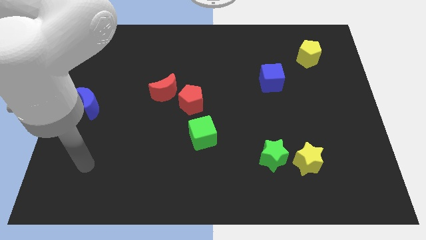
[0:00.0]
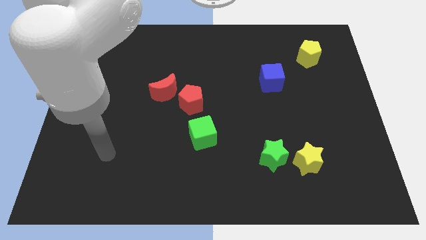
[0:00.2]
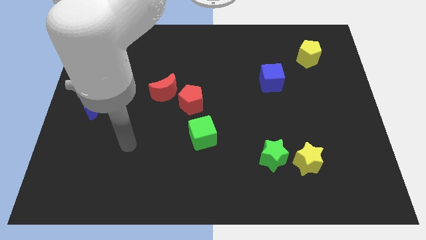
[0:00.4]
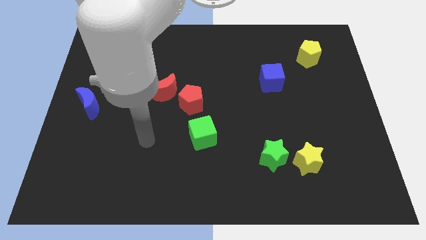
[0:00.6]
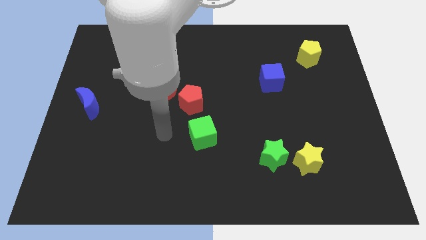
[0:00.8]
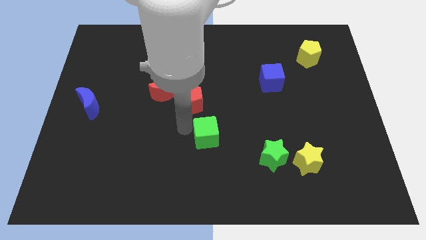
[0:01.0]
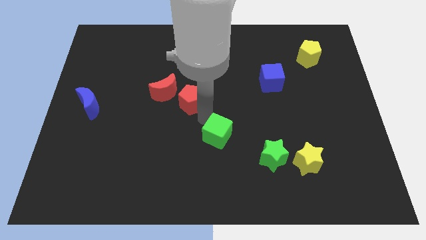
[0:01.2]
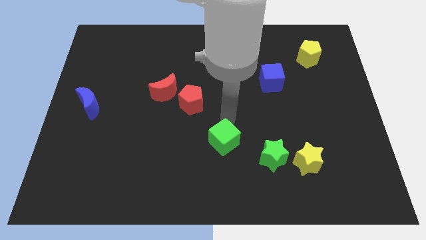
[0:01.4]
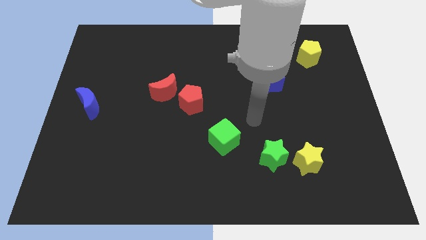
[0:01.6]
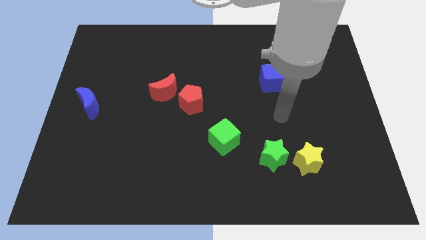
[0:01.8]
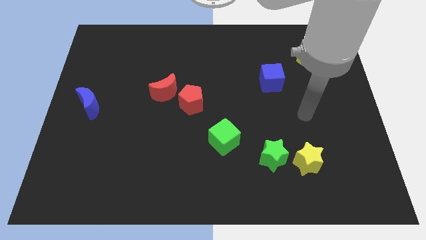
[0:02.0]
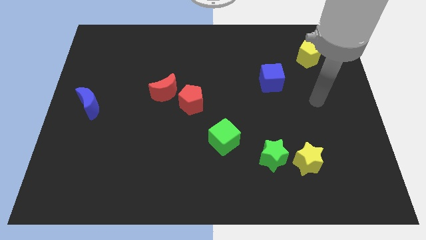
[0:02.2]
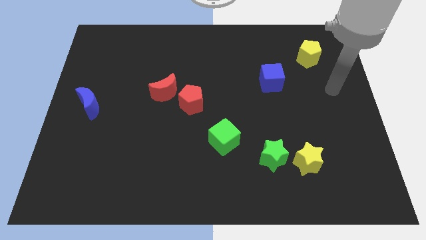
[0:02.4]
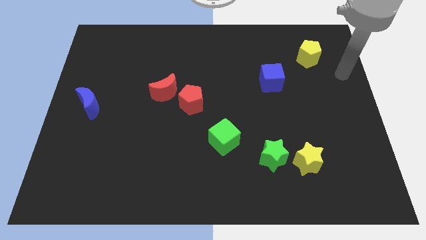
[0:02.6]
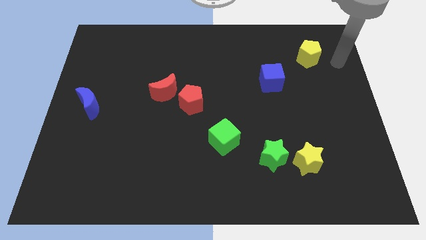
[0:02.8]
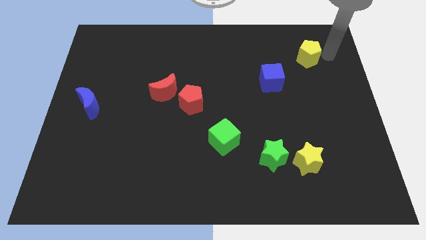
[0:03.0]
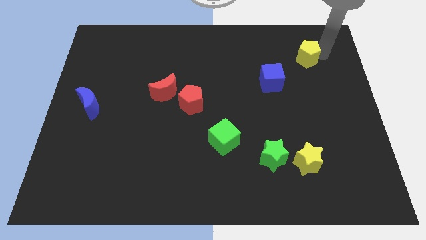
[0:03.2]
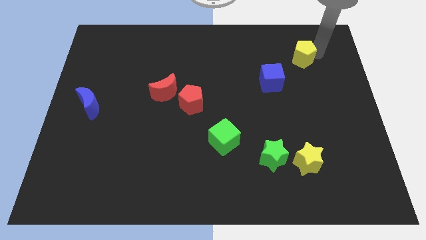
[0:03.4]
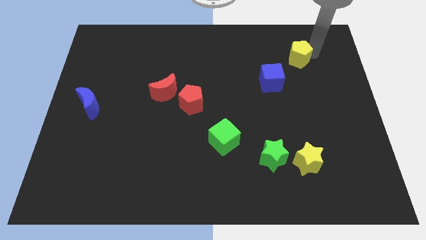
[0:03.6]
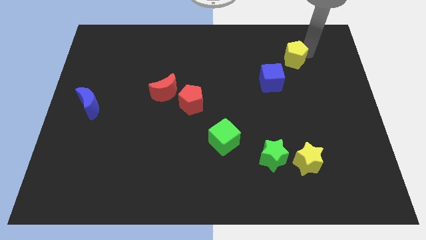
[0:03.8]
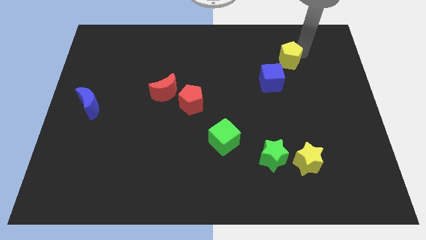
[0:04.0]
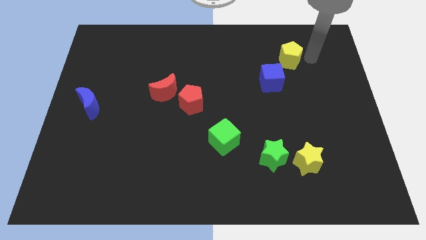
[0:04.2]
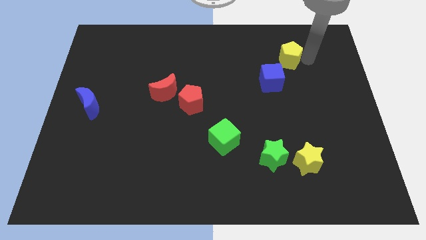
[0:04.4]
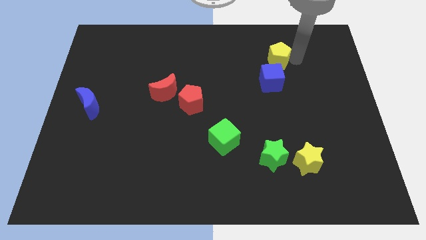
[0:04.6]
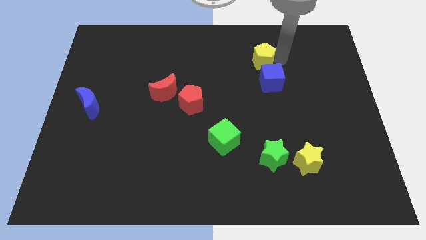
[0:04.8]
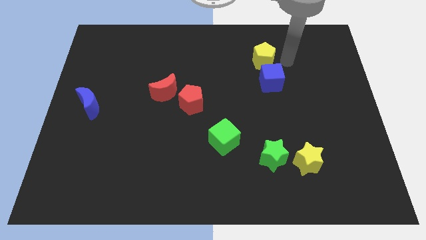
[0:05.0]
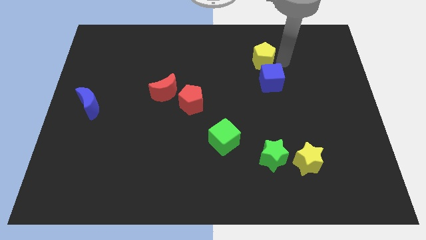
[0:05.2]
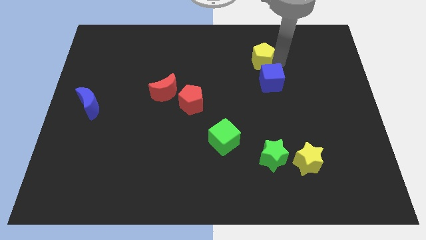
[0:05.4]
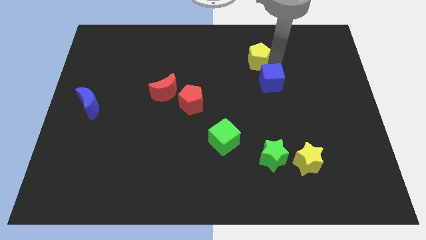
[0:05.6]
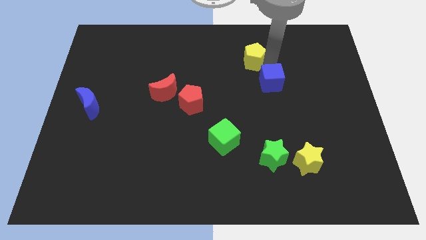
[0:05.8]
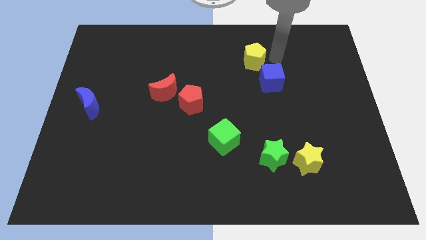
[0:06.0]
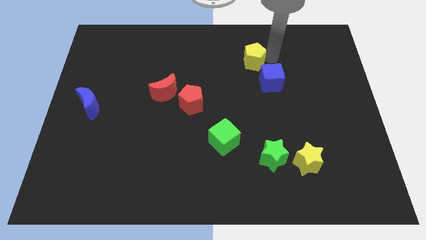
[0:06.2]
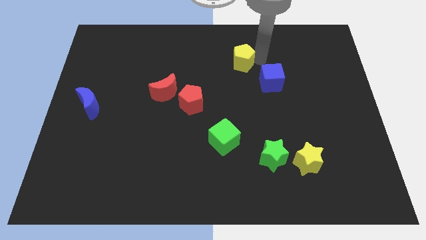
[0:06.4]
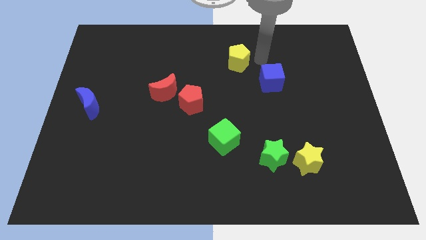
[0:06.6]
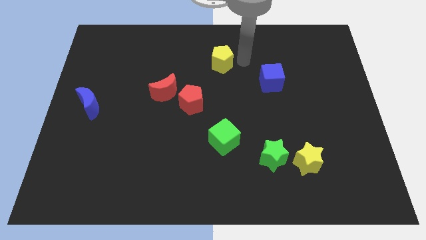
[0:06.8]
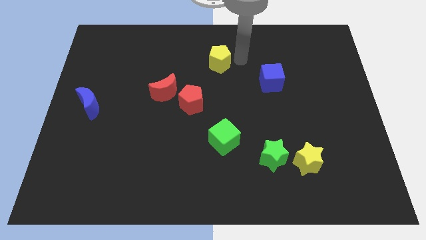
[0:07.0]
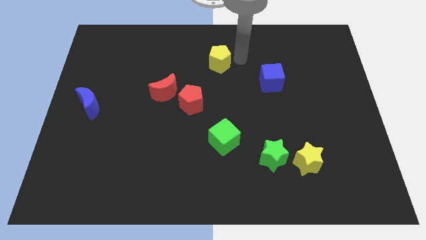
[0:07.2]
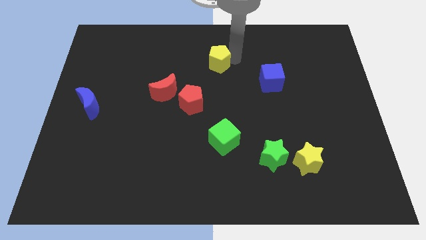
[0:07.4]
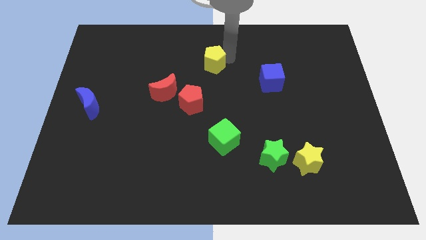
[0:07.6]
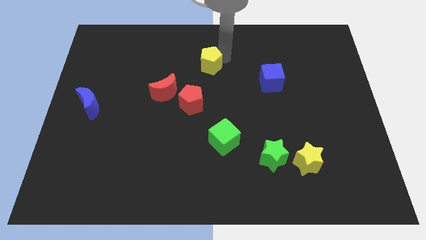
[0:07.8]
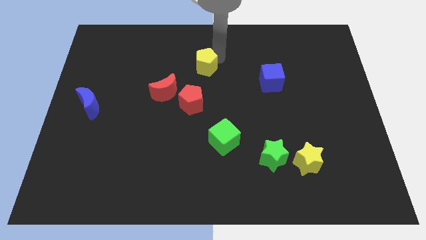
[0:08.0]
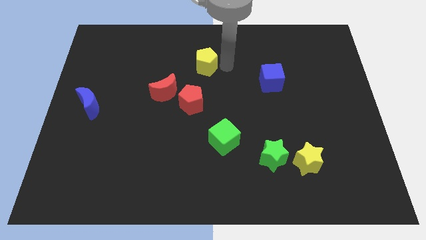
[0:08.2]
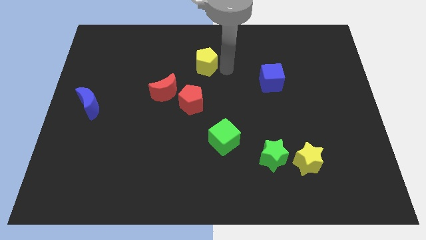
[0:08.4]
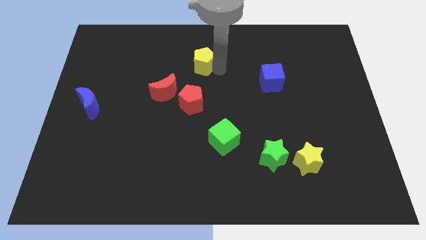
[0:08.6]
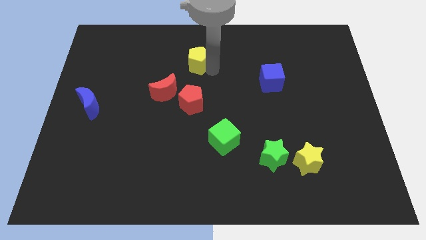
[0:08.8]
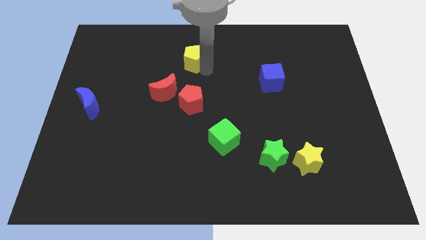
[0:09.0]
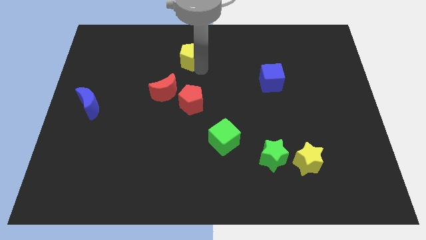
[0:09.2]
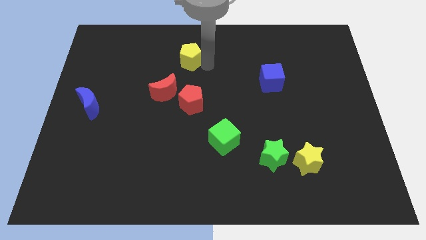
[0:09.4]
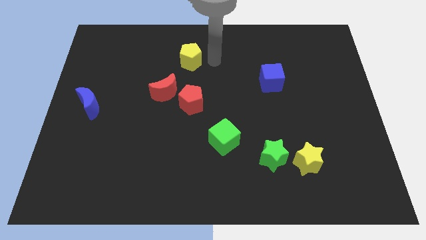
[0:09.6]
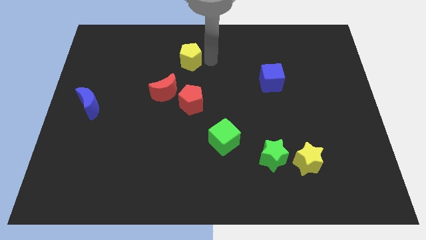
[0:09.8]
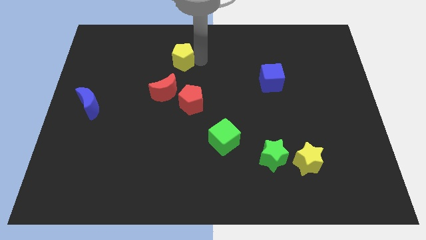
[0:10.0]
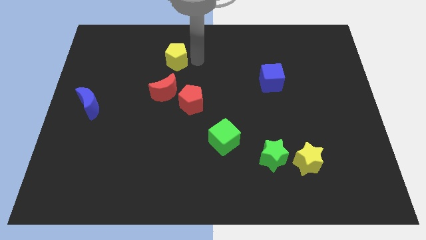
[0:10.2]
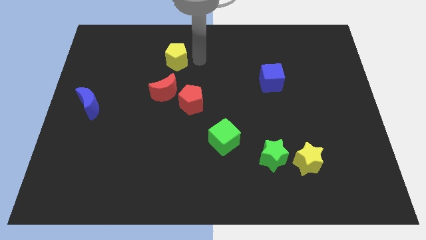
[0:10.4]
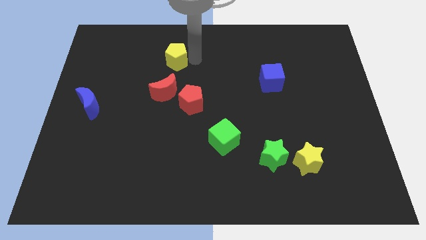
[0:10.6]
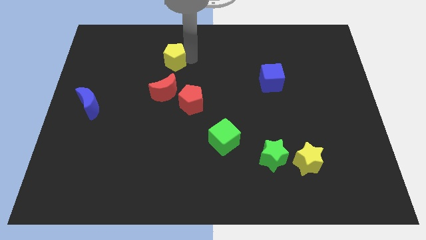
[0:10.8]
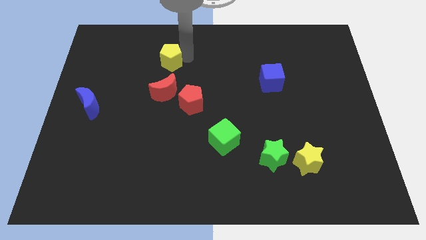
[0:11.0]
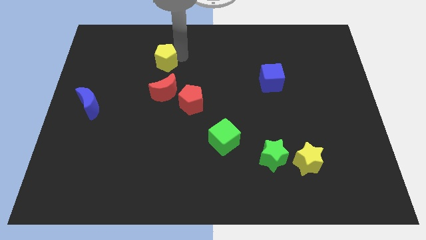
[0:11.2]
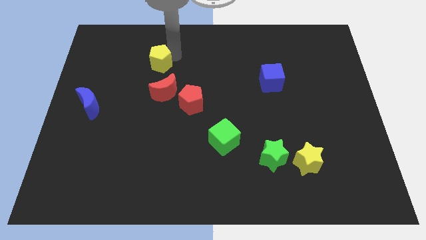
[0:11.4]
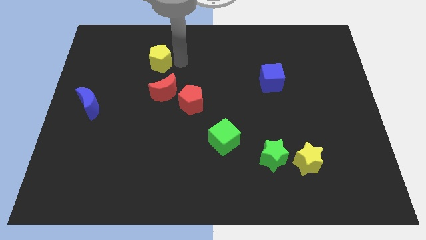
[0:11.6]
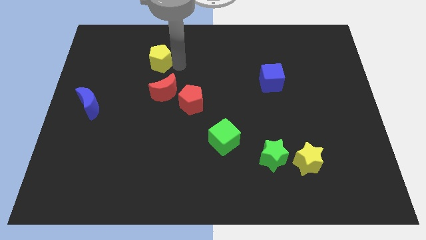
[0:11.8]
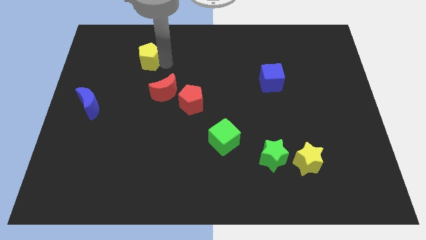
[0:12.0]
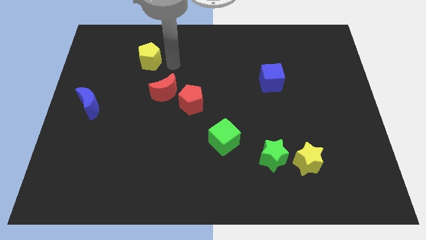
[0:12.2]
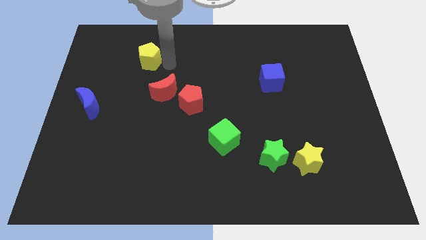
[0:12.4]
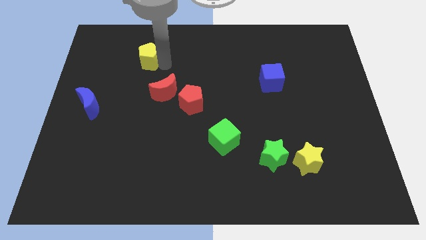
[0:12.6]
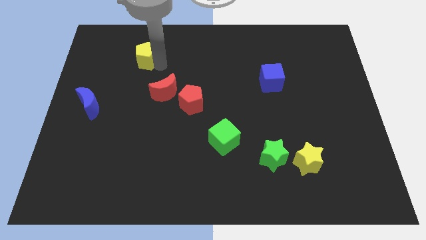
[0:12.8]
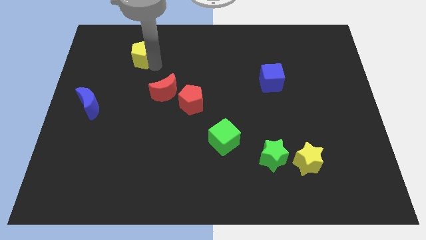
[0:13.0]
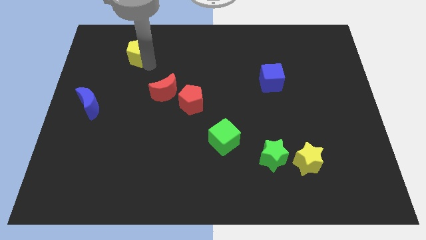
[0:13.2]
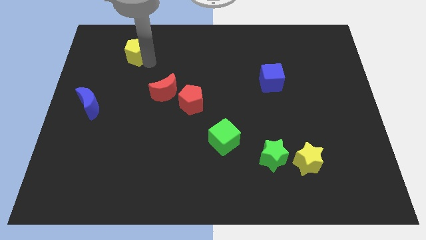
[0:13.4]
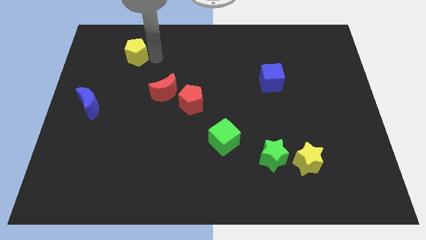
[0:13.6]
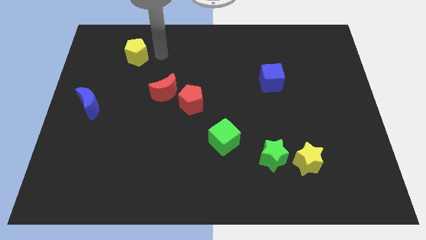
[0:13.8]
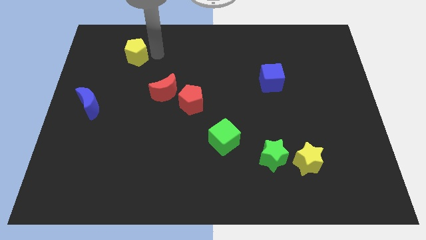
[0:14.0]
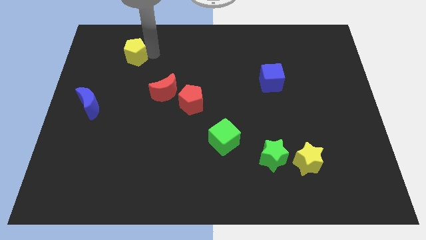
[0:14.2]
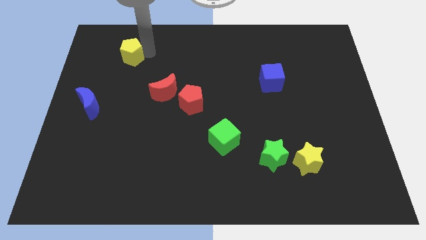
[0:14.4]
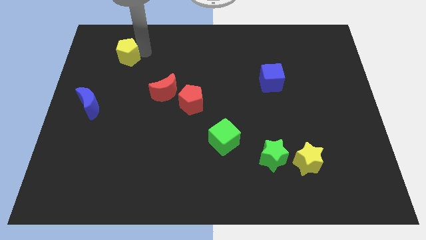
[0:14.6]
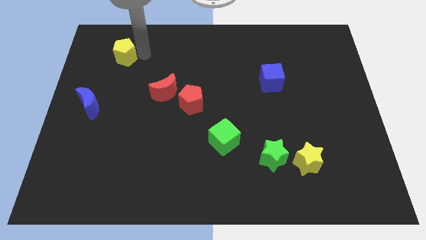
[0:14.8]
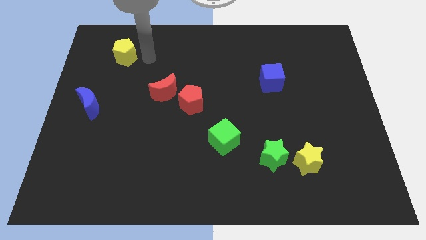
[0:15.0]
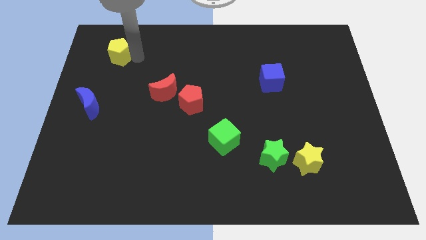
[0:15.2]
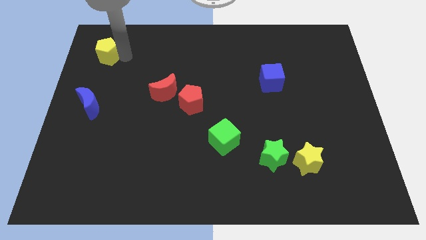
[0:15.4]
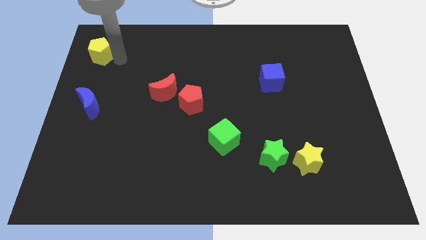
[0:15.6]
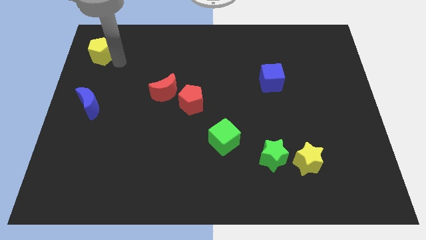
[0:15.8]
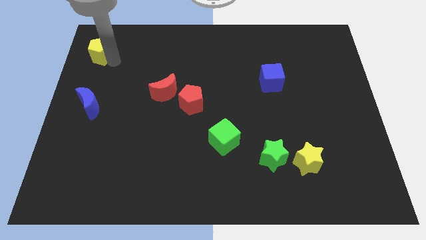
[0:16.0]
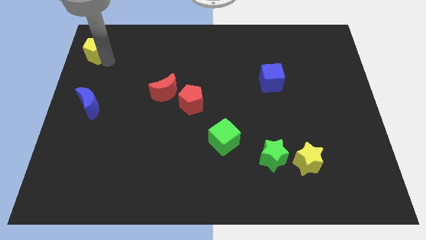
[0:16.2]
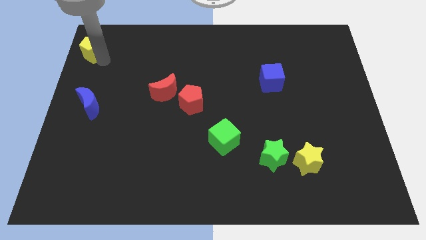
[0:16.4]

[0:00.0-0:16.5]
push the yellow pentagon to the upper left corner
